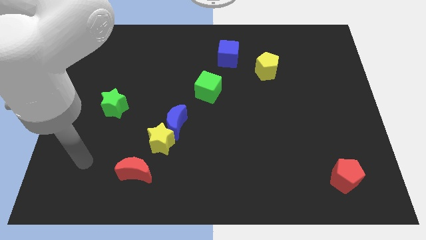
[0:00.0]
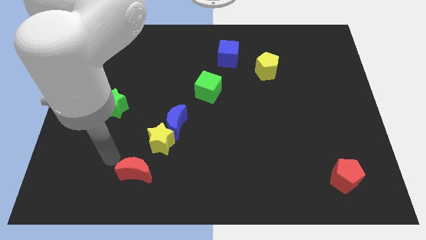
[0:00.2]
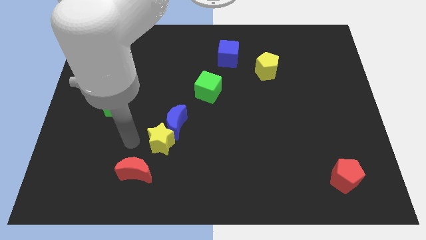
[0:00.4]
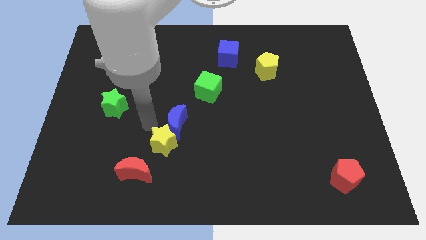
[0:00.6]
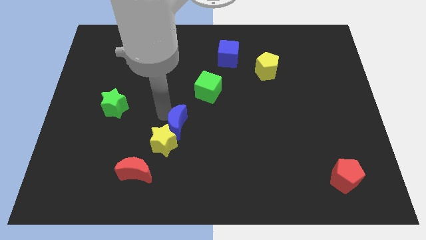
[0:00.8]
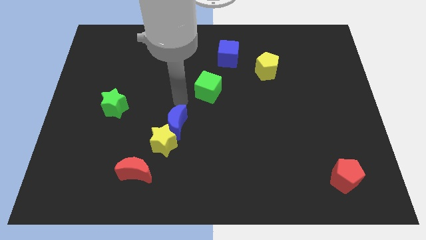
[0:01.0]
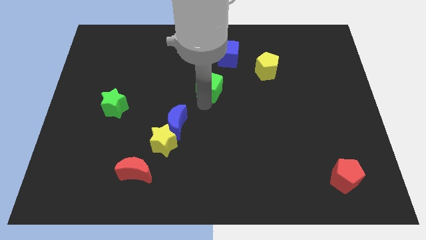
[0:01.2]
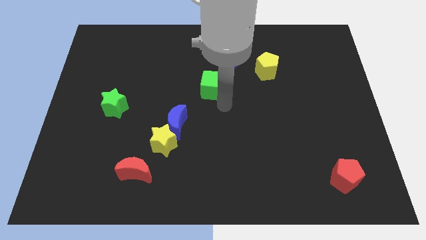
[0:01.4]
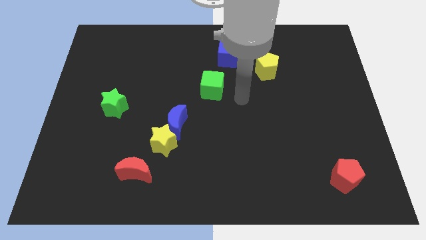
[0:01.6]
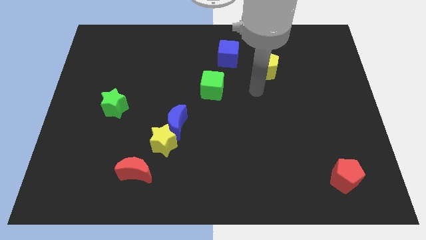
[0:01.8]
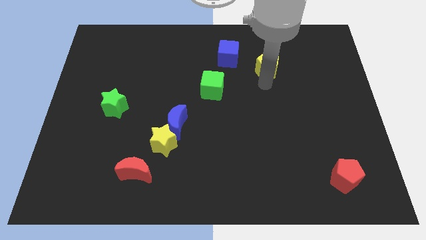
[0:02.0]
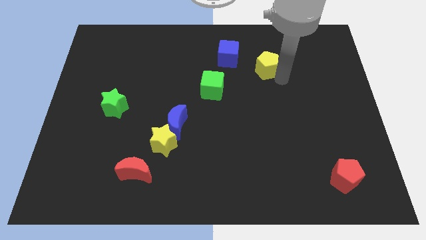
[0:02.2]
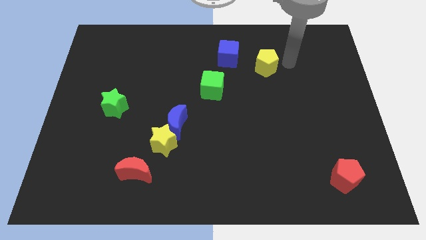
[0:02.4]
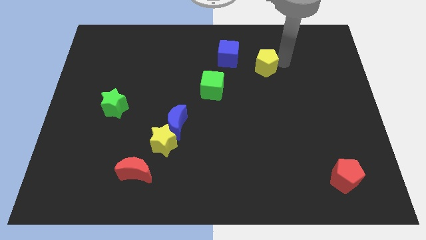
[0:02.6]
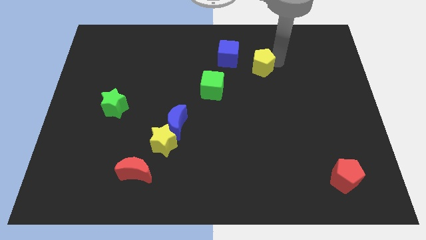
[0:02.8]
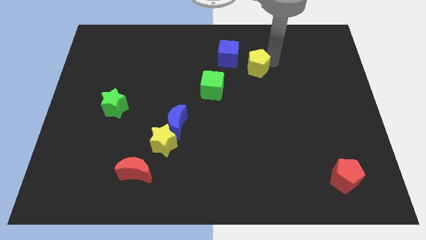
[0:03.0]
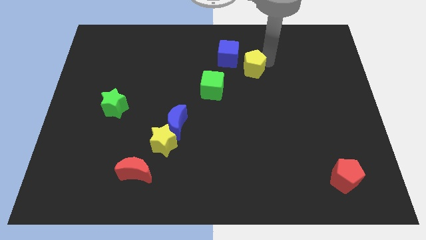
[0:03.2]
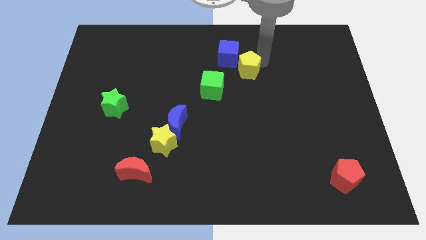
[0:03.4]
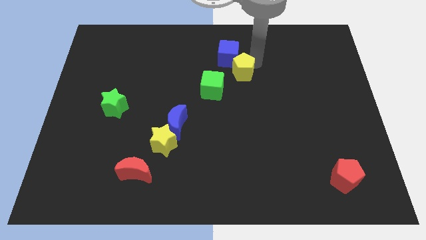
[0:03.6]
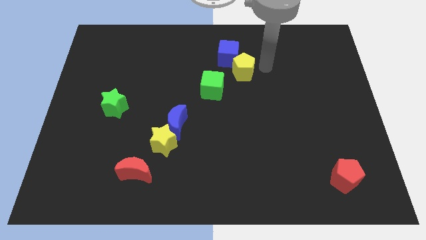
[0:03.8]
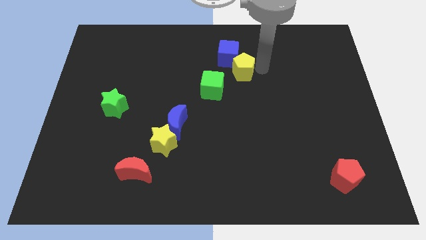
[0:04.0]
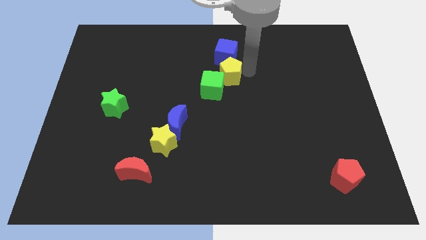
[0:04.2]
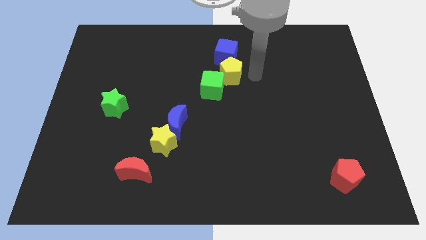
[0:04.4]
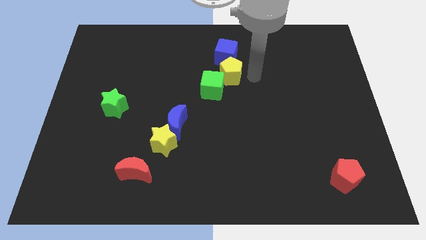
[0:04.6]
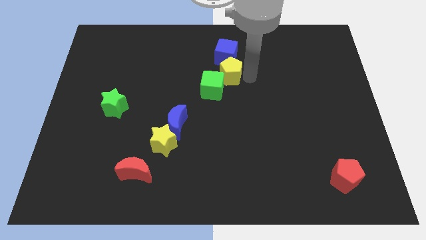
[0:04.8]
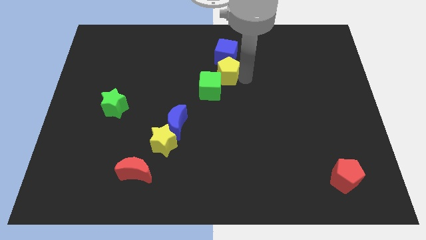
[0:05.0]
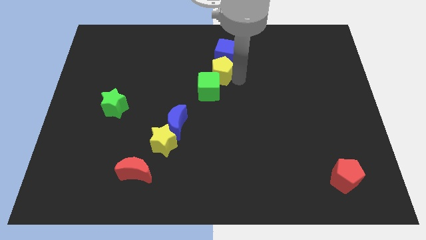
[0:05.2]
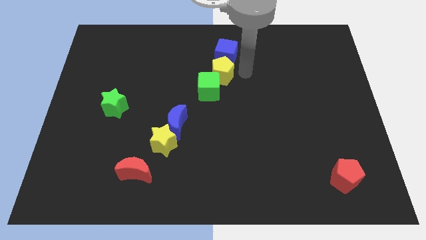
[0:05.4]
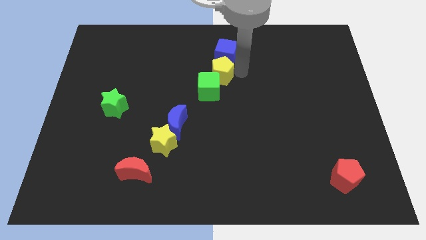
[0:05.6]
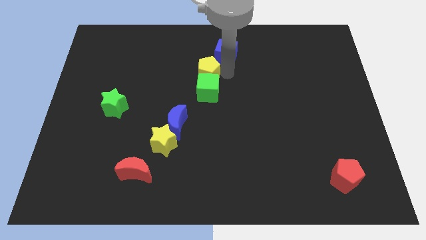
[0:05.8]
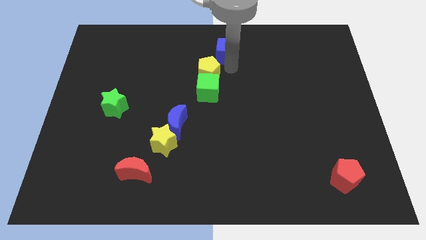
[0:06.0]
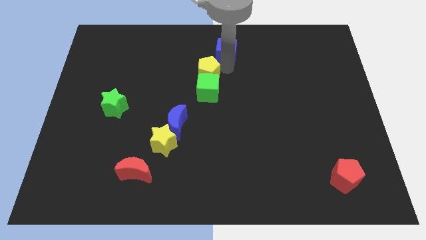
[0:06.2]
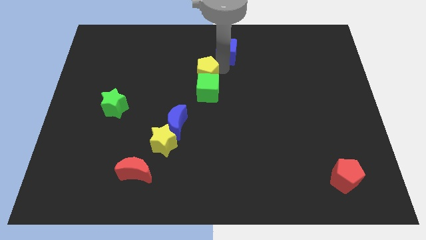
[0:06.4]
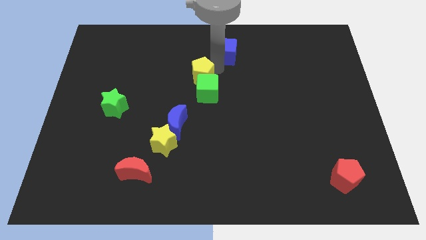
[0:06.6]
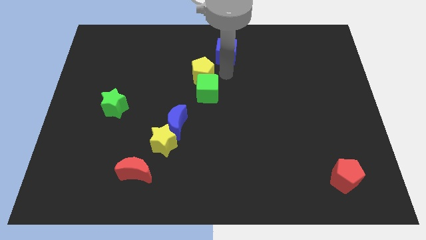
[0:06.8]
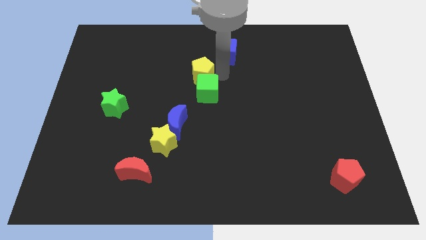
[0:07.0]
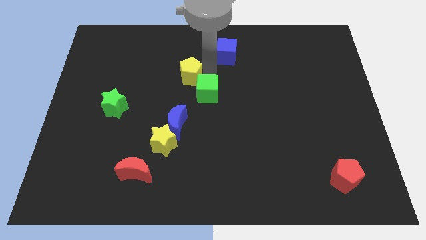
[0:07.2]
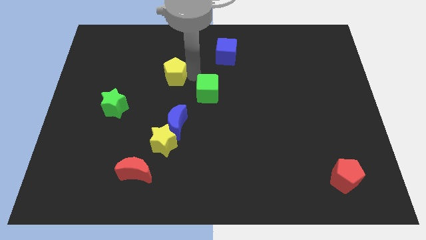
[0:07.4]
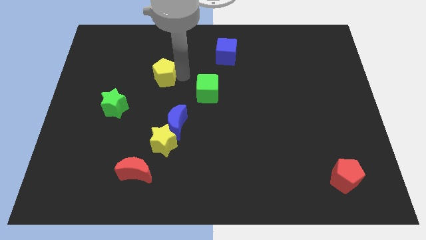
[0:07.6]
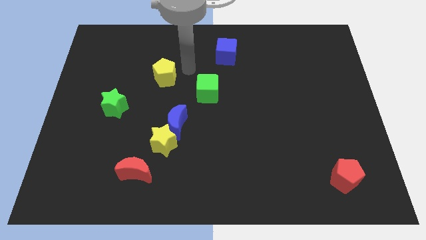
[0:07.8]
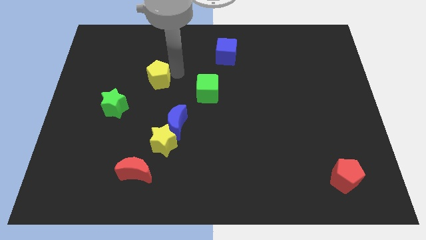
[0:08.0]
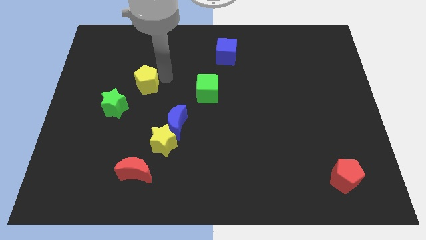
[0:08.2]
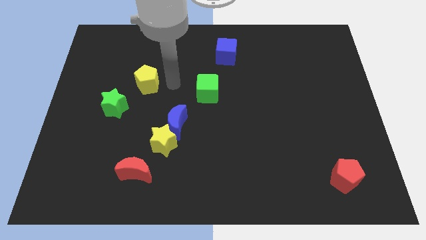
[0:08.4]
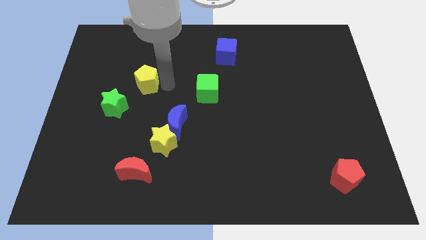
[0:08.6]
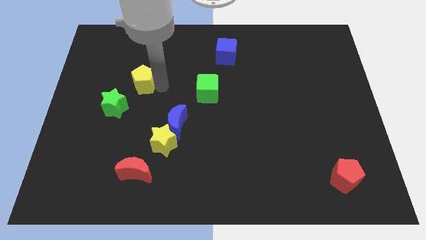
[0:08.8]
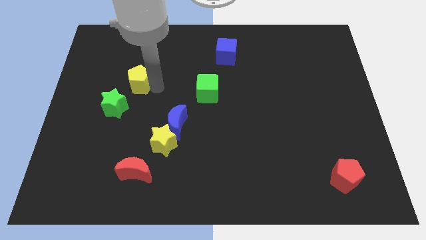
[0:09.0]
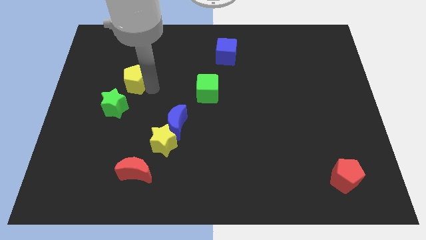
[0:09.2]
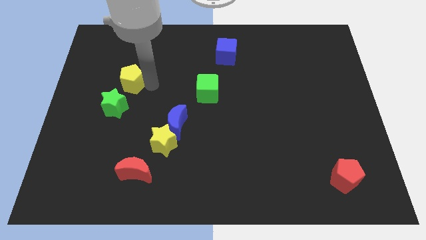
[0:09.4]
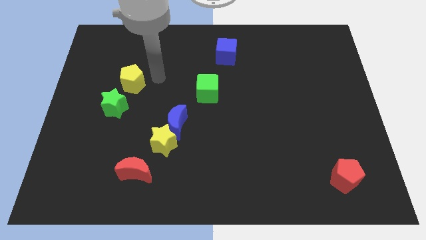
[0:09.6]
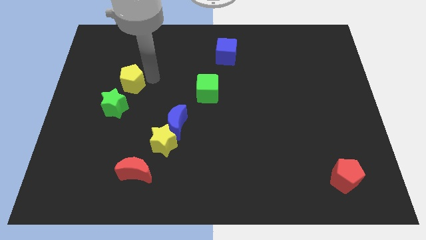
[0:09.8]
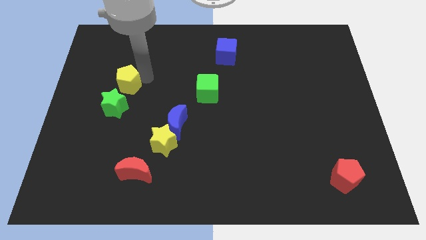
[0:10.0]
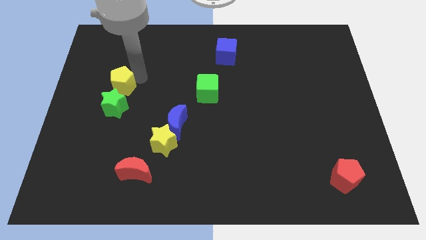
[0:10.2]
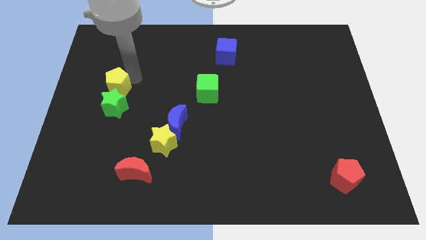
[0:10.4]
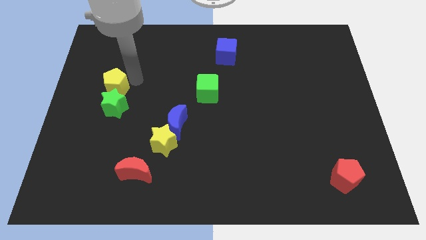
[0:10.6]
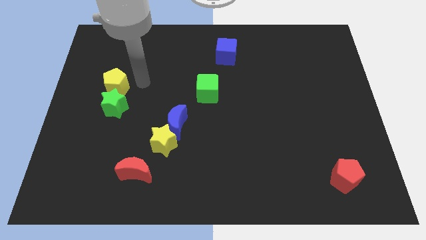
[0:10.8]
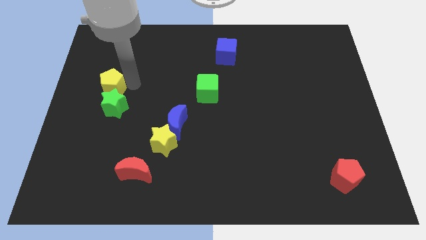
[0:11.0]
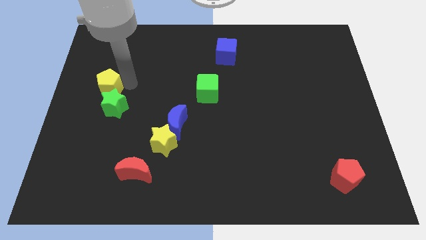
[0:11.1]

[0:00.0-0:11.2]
slide the yellow pentagon to the left side of the board

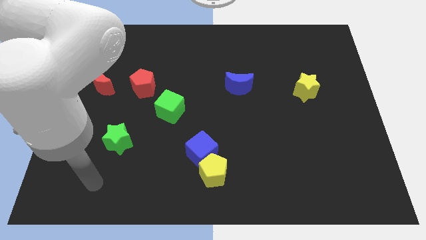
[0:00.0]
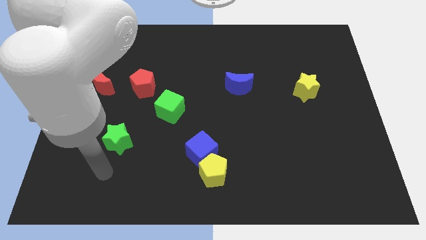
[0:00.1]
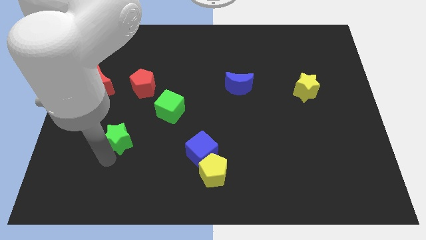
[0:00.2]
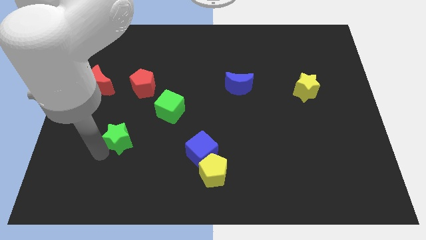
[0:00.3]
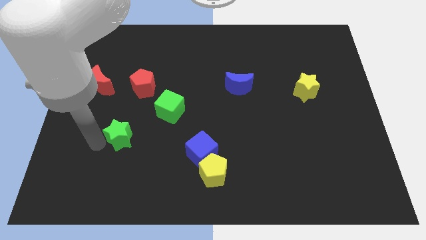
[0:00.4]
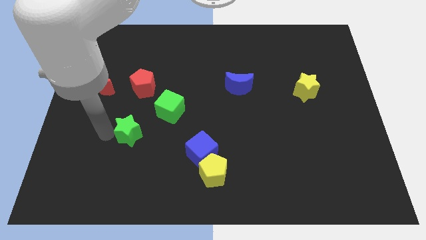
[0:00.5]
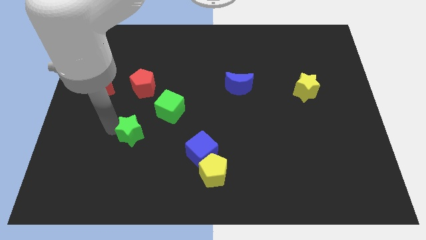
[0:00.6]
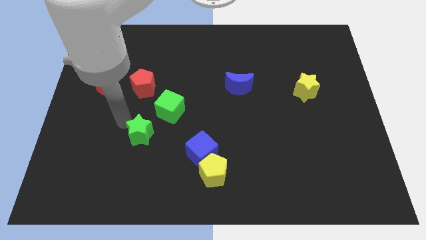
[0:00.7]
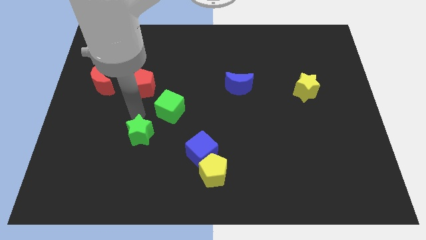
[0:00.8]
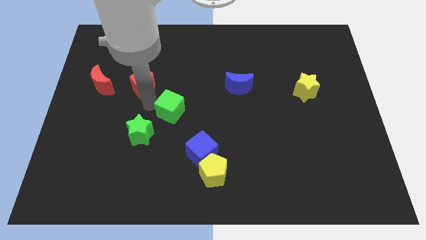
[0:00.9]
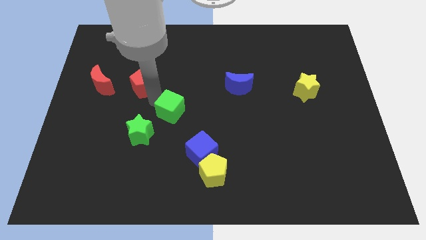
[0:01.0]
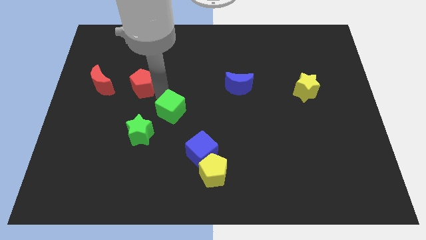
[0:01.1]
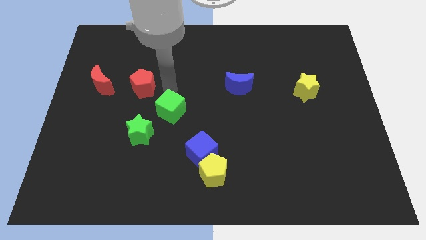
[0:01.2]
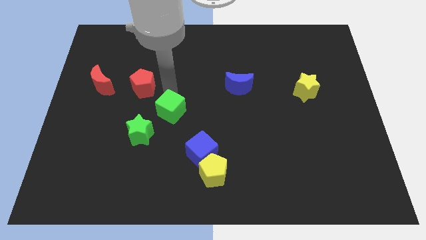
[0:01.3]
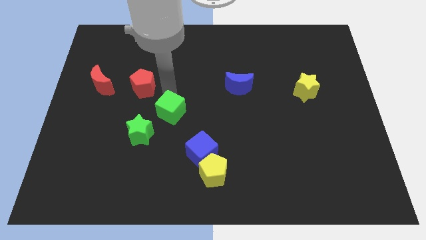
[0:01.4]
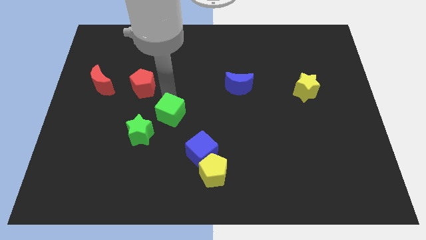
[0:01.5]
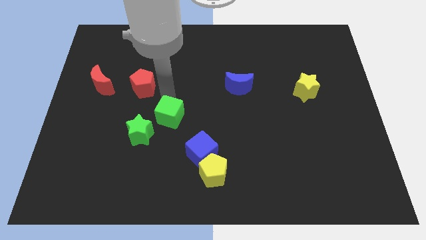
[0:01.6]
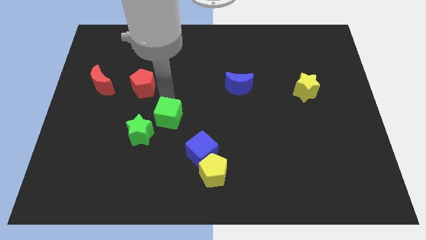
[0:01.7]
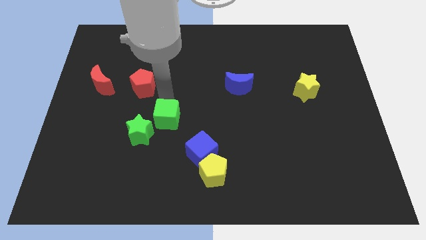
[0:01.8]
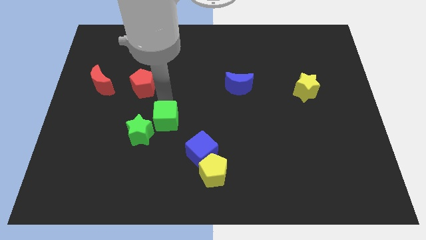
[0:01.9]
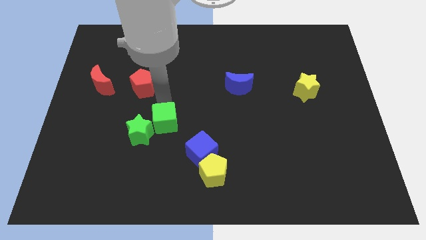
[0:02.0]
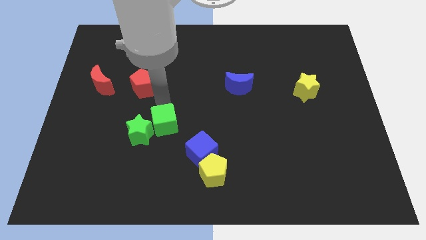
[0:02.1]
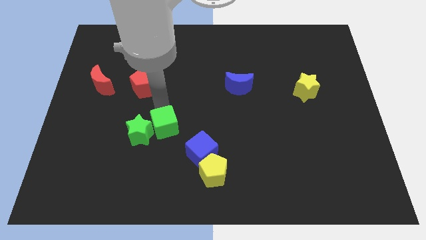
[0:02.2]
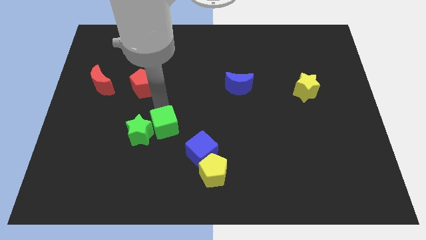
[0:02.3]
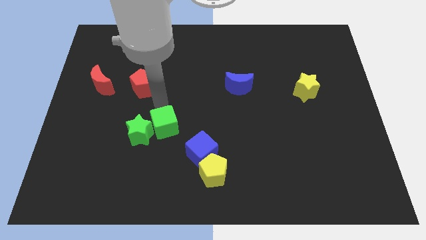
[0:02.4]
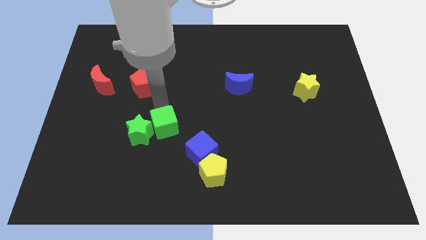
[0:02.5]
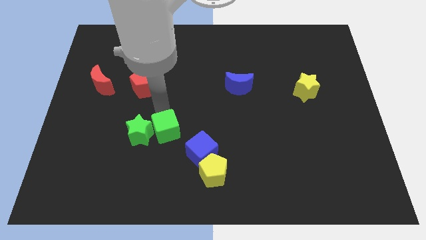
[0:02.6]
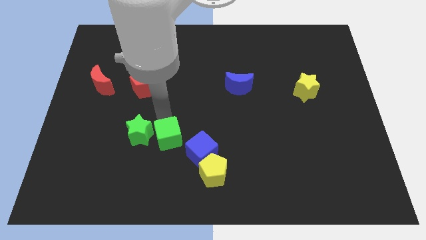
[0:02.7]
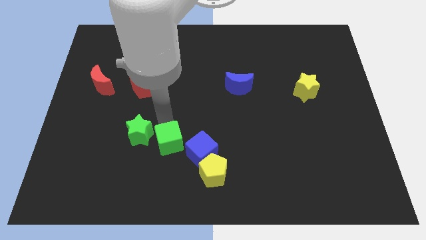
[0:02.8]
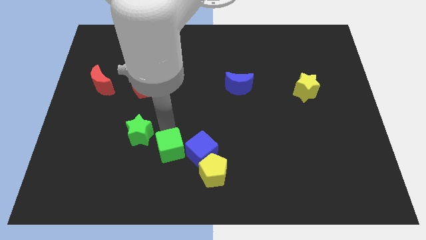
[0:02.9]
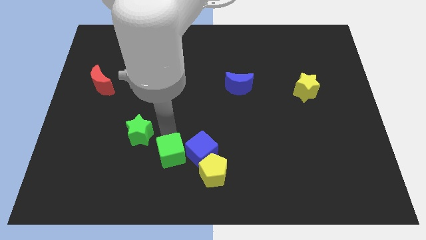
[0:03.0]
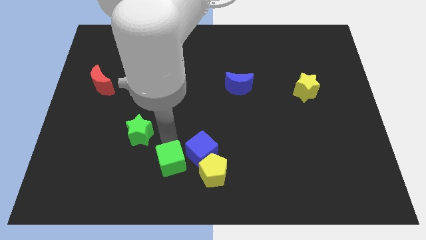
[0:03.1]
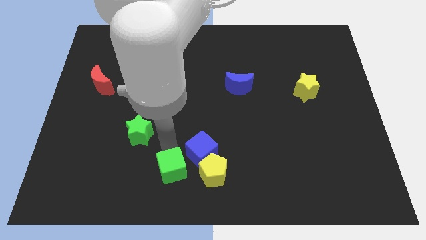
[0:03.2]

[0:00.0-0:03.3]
move the green cube to the bottom
